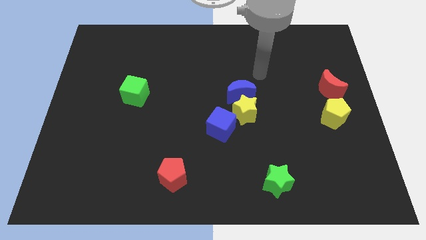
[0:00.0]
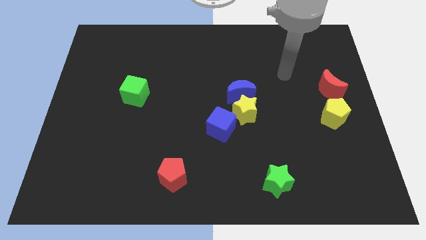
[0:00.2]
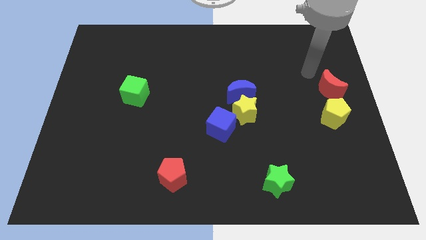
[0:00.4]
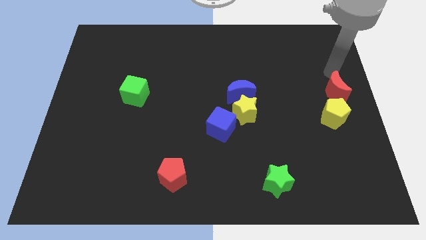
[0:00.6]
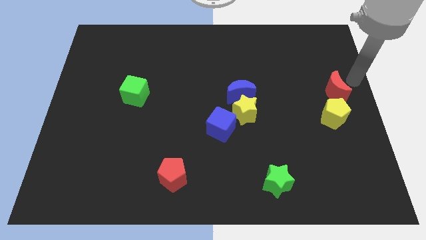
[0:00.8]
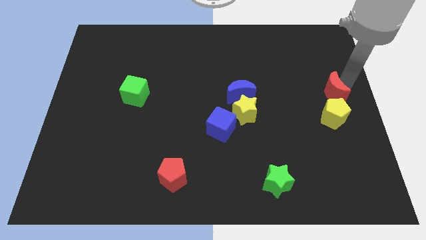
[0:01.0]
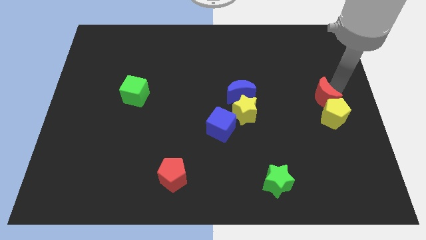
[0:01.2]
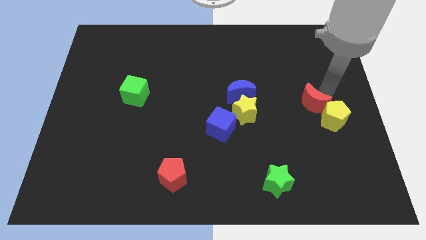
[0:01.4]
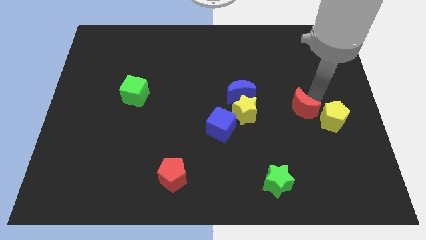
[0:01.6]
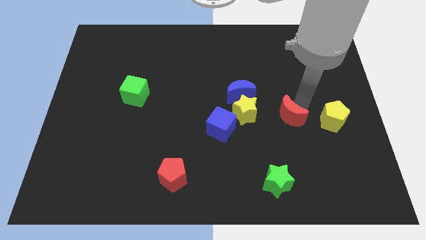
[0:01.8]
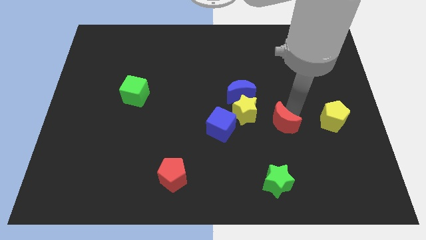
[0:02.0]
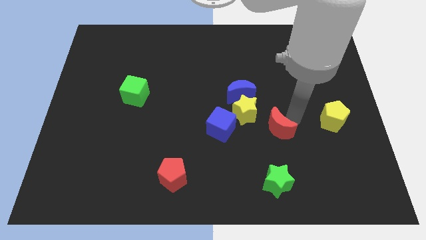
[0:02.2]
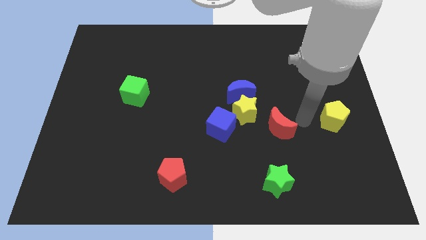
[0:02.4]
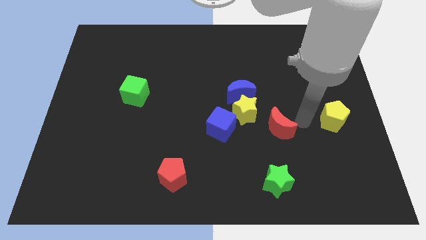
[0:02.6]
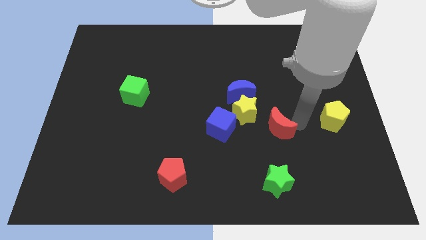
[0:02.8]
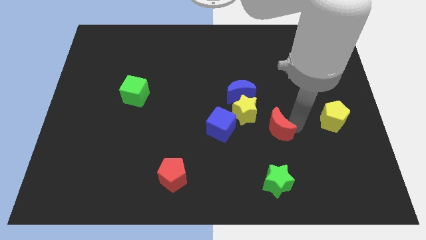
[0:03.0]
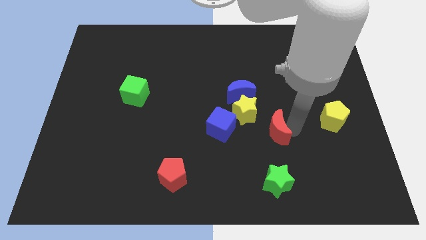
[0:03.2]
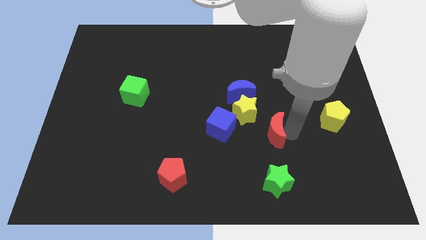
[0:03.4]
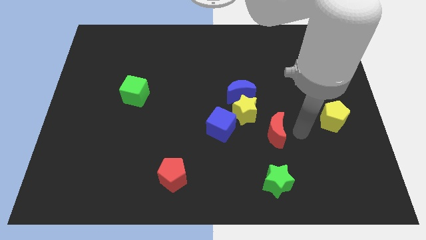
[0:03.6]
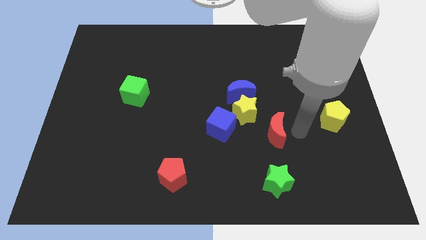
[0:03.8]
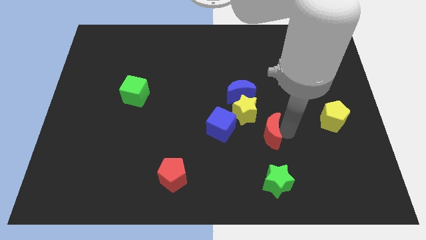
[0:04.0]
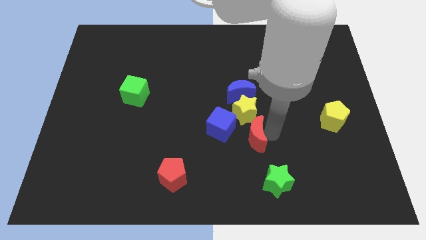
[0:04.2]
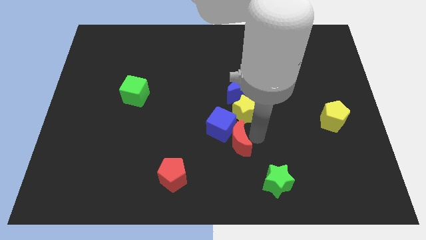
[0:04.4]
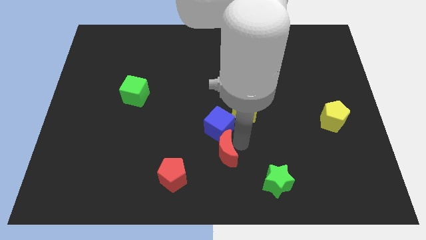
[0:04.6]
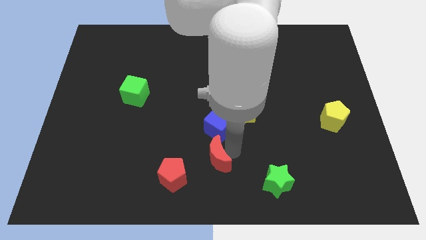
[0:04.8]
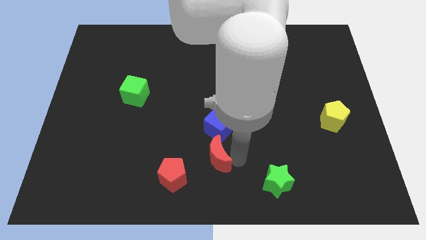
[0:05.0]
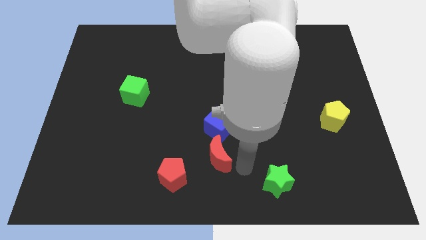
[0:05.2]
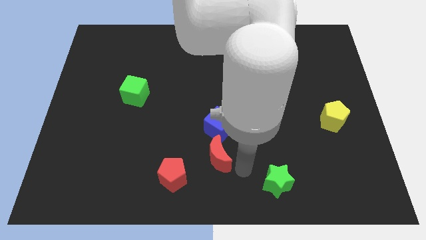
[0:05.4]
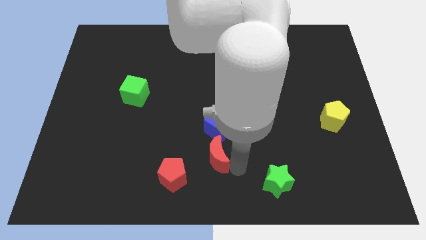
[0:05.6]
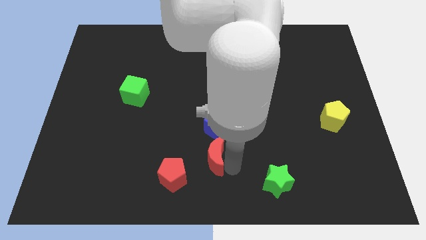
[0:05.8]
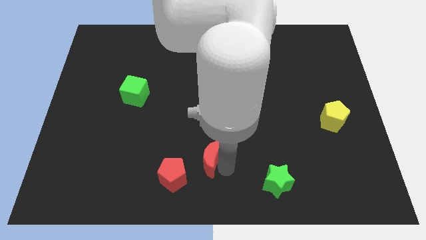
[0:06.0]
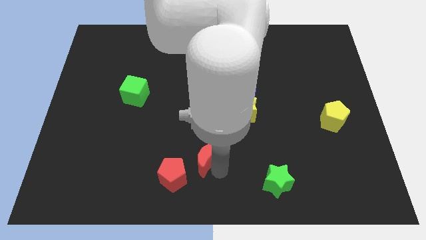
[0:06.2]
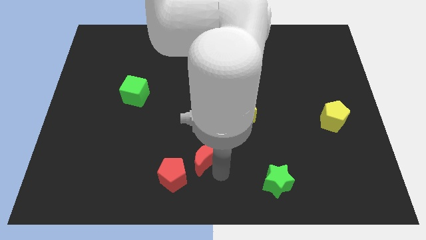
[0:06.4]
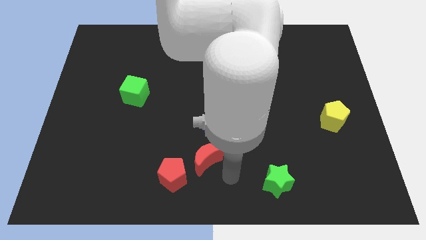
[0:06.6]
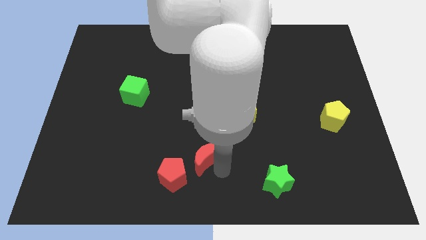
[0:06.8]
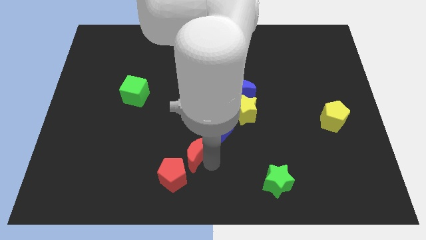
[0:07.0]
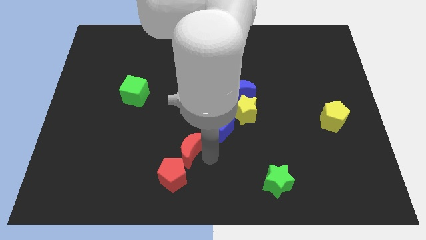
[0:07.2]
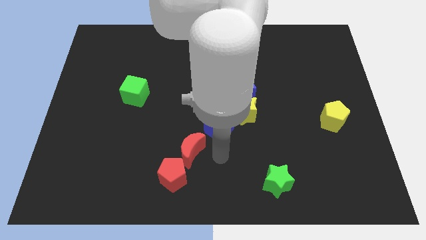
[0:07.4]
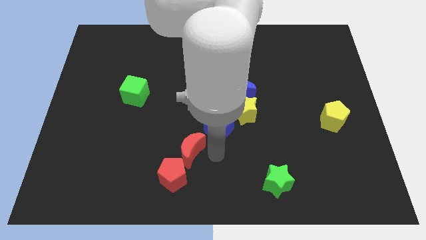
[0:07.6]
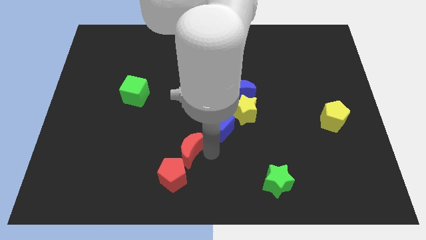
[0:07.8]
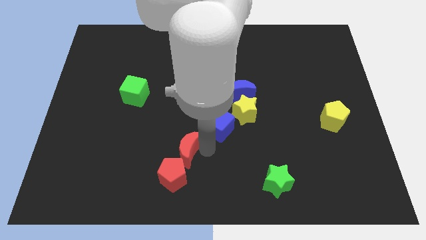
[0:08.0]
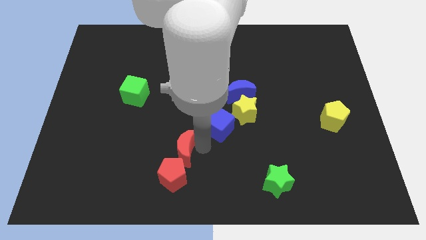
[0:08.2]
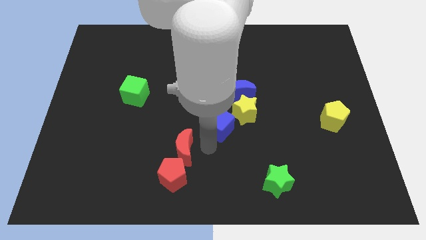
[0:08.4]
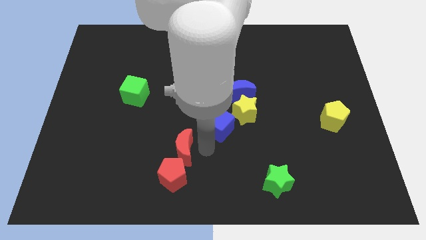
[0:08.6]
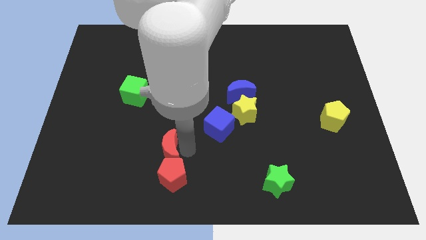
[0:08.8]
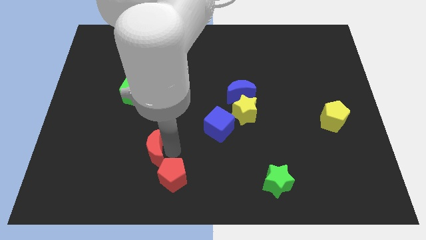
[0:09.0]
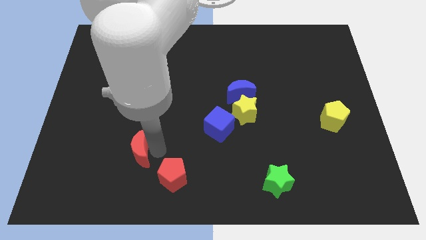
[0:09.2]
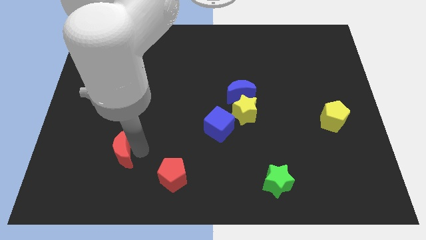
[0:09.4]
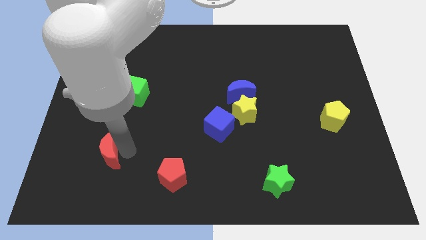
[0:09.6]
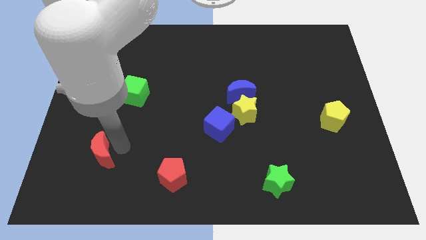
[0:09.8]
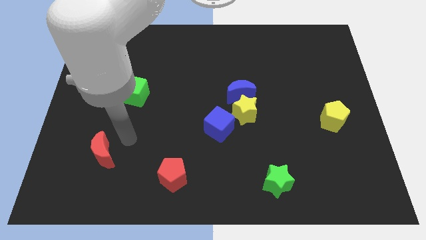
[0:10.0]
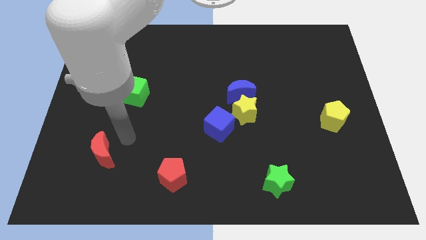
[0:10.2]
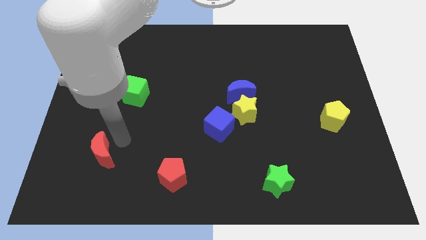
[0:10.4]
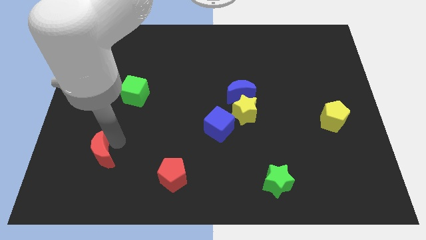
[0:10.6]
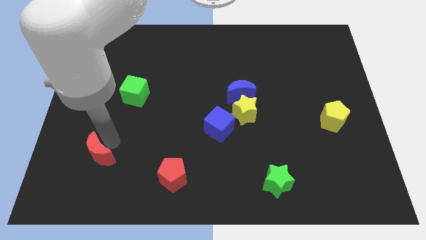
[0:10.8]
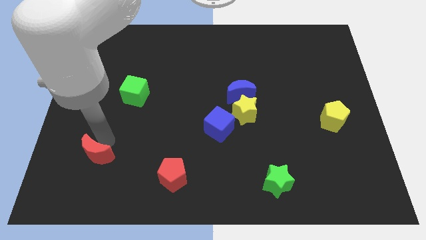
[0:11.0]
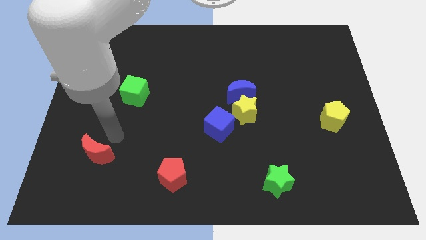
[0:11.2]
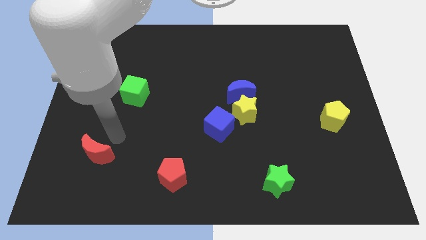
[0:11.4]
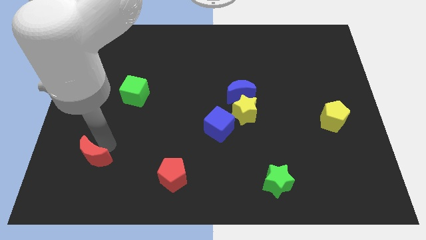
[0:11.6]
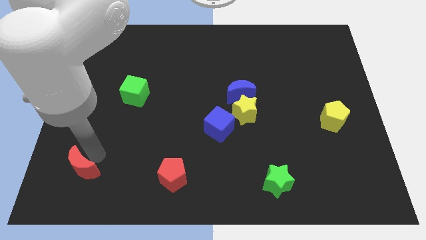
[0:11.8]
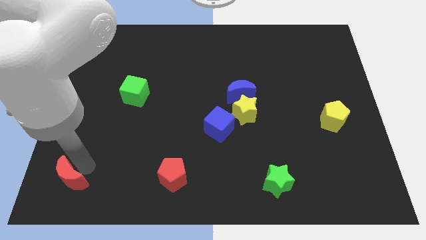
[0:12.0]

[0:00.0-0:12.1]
slide the red moon to the bottom left

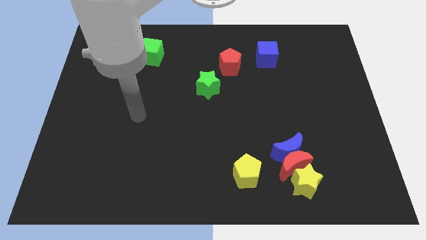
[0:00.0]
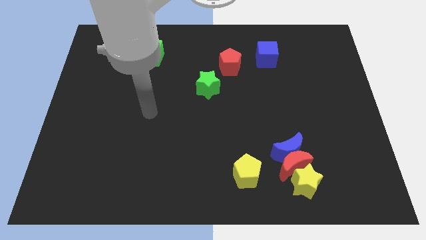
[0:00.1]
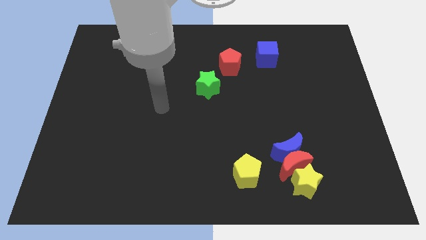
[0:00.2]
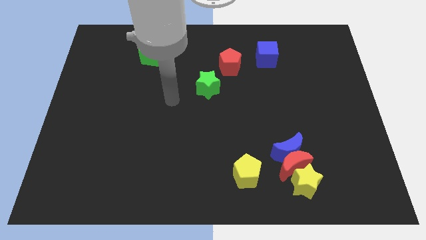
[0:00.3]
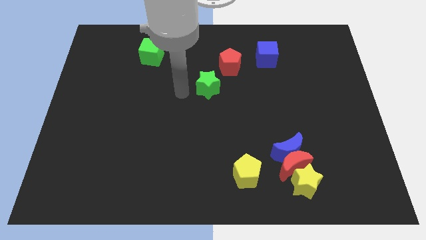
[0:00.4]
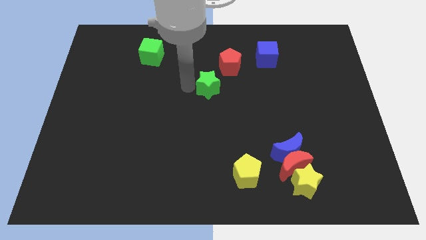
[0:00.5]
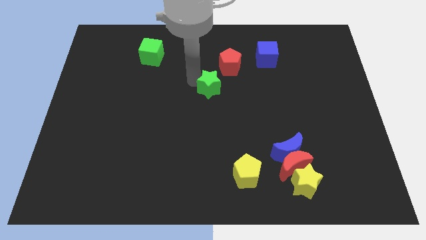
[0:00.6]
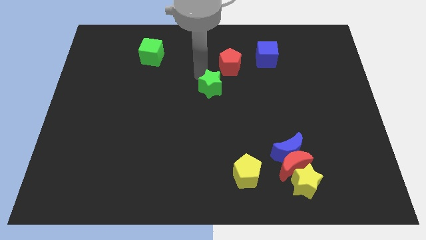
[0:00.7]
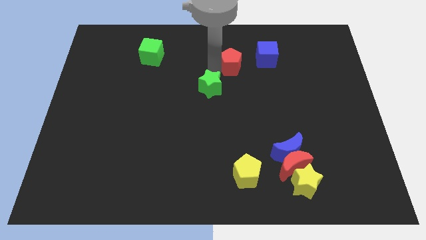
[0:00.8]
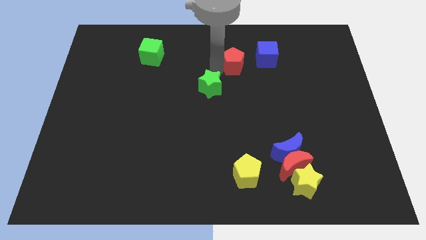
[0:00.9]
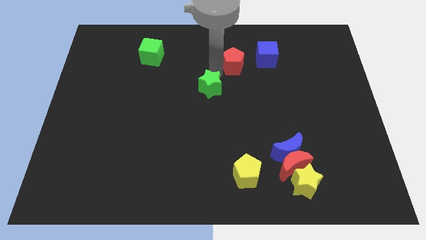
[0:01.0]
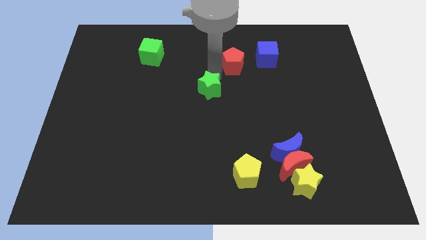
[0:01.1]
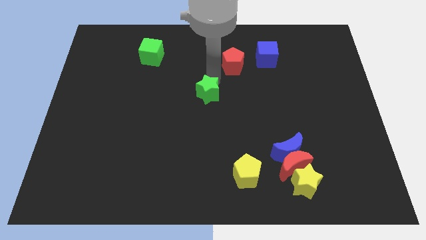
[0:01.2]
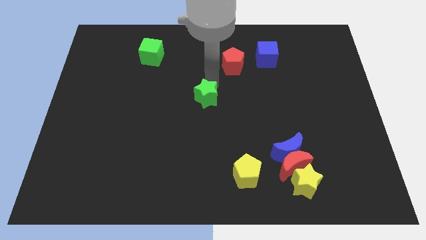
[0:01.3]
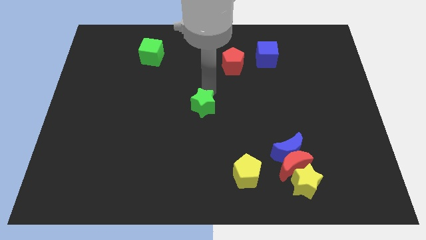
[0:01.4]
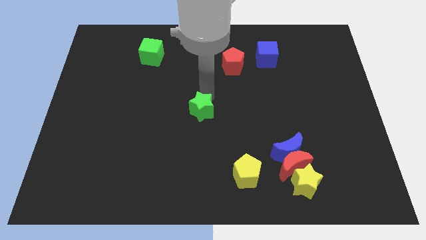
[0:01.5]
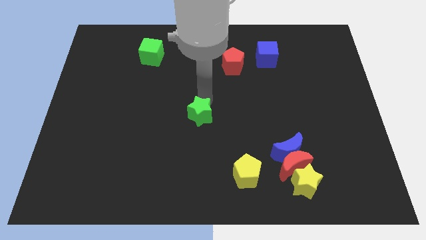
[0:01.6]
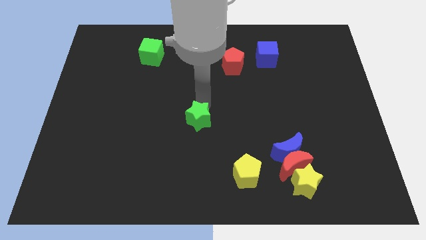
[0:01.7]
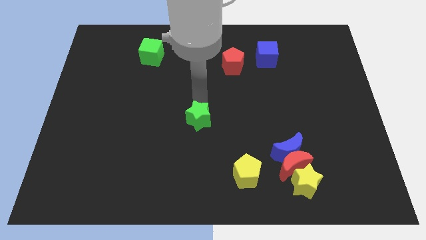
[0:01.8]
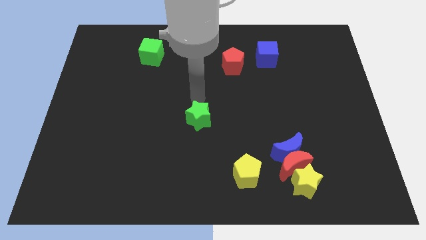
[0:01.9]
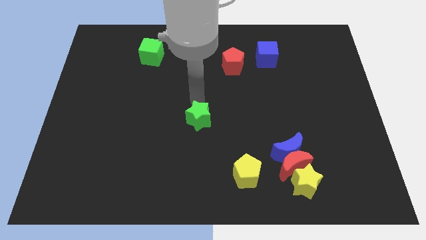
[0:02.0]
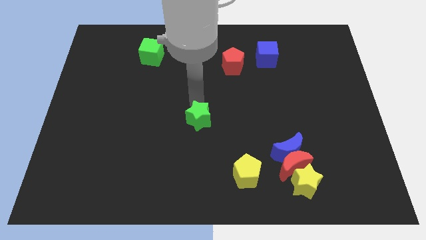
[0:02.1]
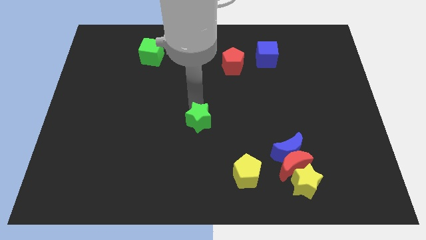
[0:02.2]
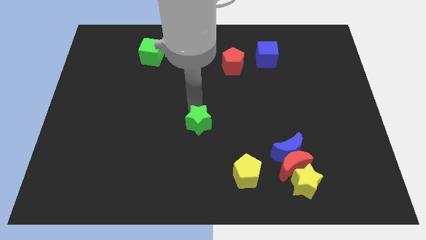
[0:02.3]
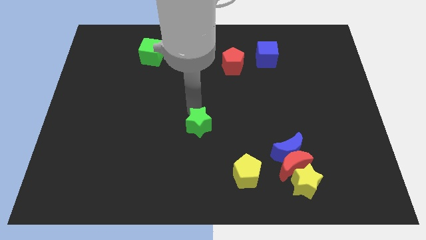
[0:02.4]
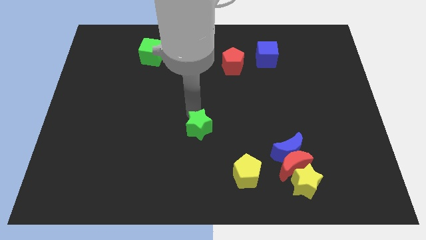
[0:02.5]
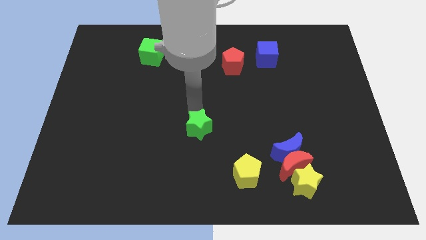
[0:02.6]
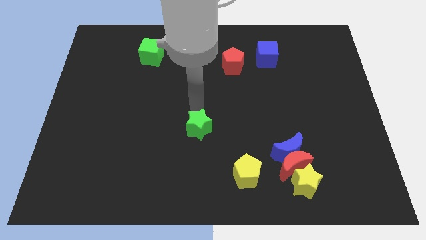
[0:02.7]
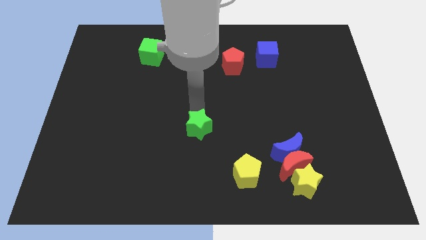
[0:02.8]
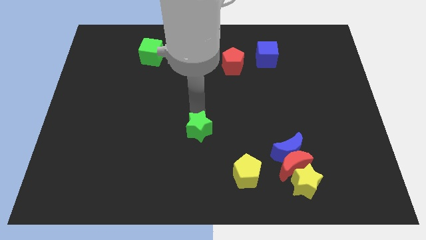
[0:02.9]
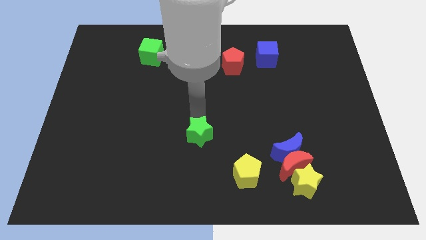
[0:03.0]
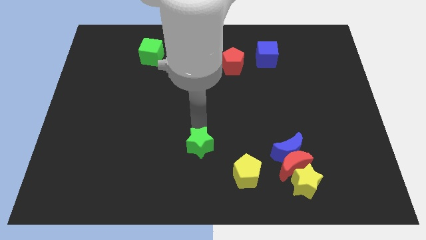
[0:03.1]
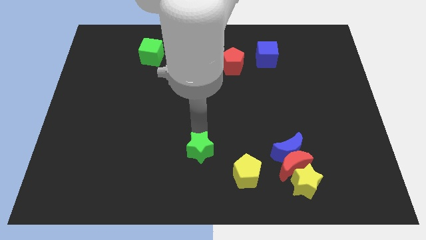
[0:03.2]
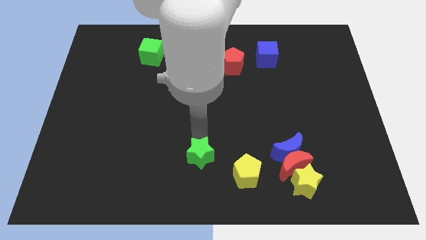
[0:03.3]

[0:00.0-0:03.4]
slide the green star to the bottom side
